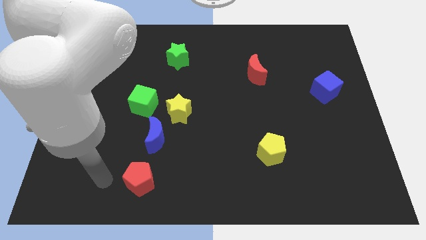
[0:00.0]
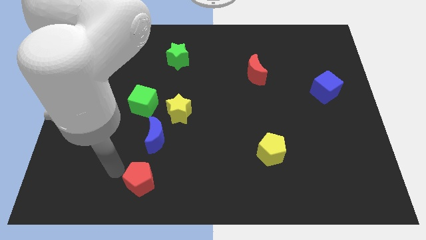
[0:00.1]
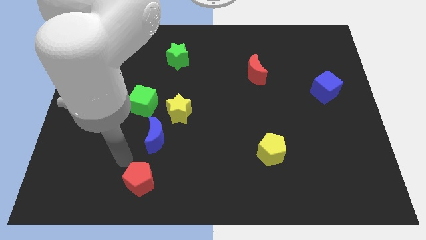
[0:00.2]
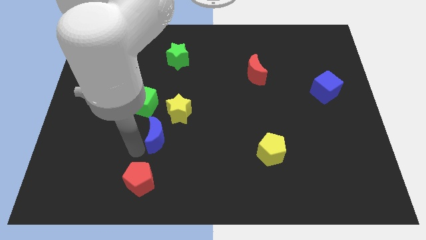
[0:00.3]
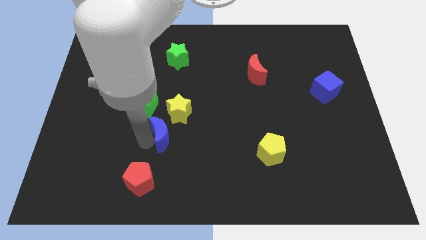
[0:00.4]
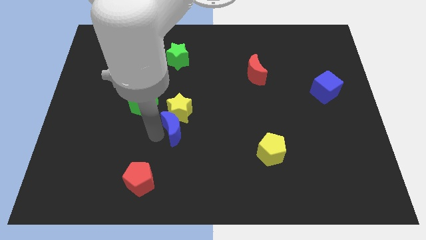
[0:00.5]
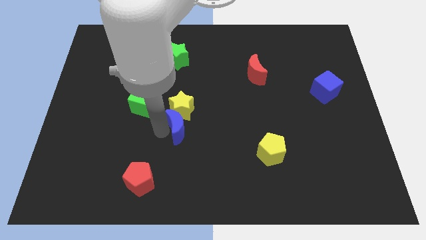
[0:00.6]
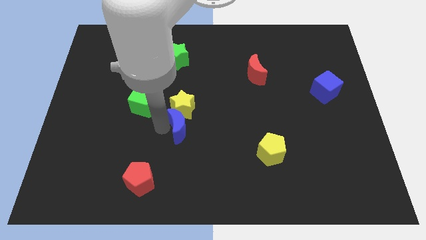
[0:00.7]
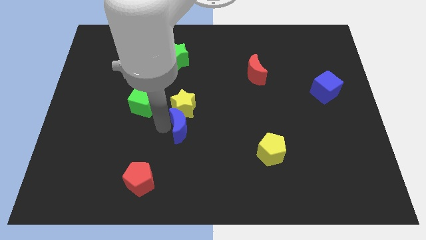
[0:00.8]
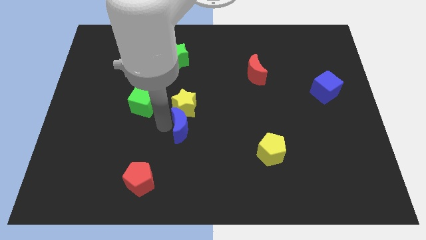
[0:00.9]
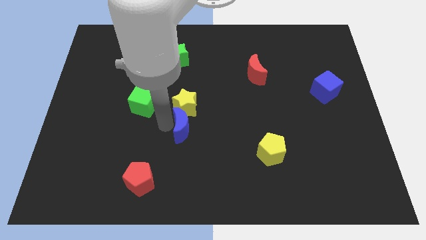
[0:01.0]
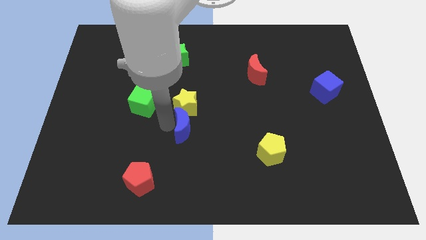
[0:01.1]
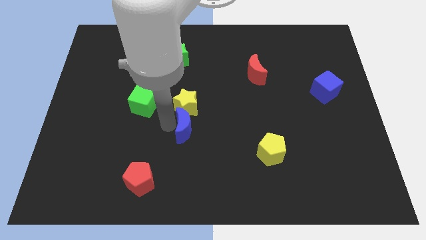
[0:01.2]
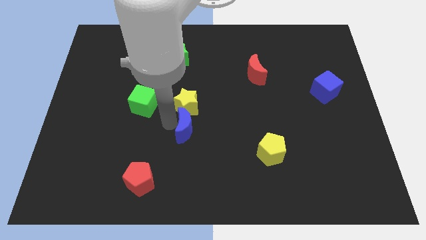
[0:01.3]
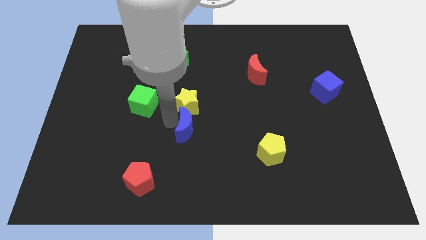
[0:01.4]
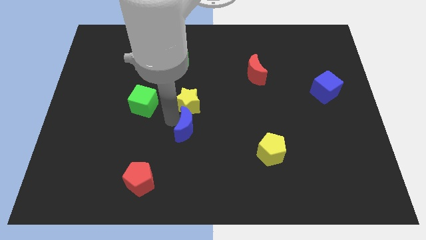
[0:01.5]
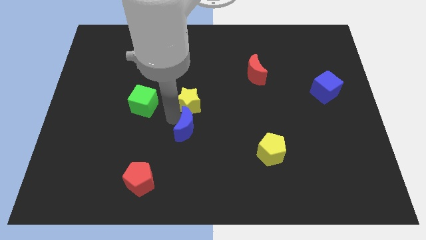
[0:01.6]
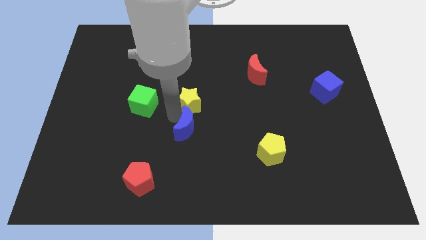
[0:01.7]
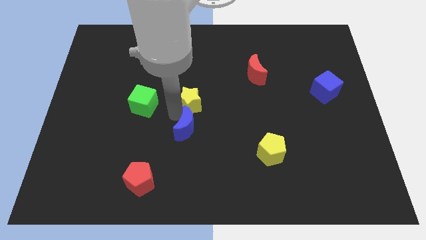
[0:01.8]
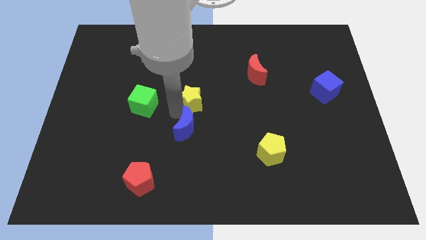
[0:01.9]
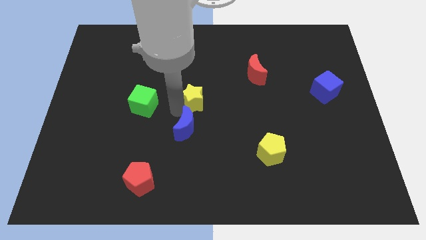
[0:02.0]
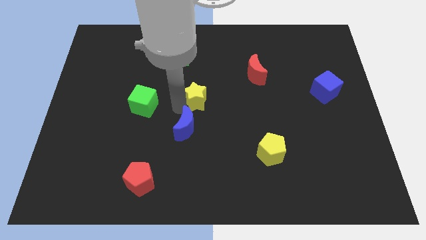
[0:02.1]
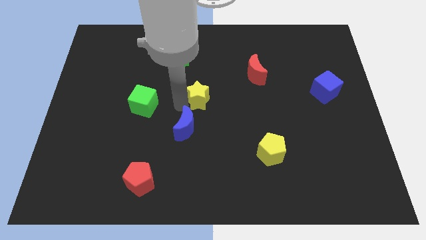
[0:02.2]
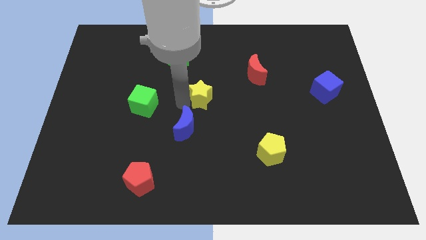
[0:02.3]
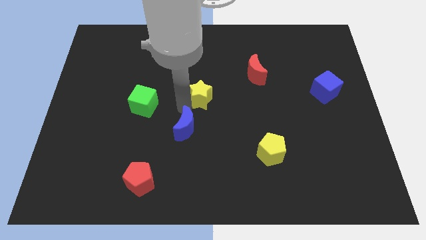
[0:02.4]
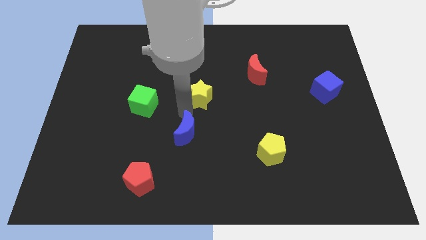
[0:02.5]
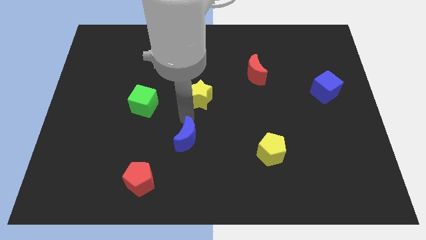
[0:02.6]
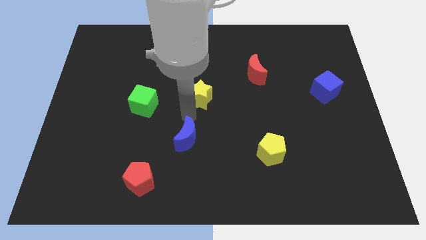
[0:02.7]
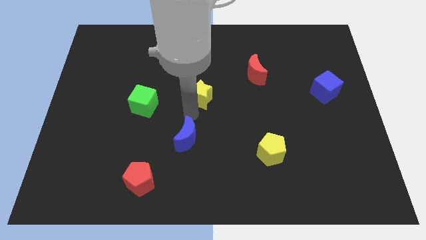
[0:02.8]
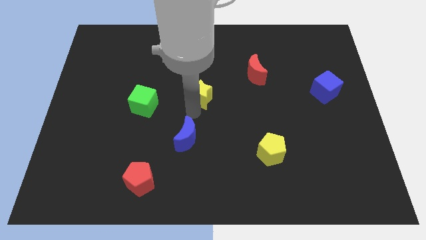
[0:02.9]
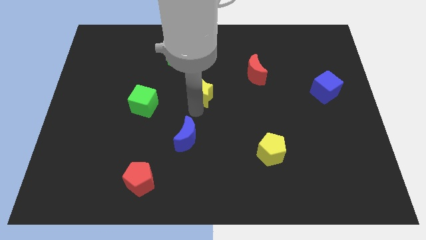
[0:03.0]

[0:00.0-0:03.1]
push the yellow star upwards and then right a little

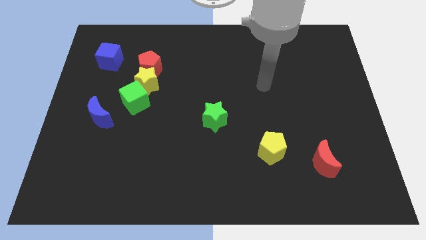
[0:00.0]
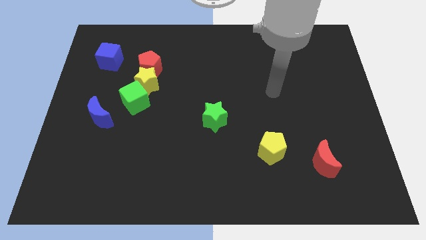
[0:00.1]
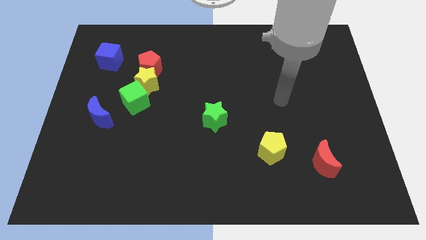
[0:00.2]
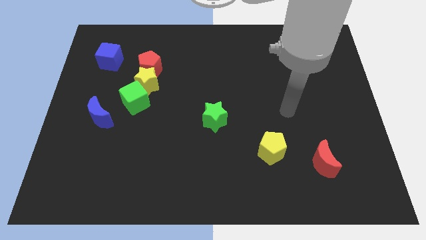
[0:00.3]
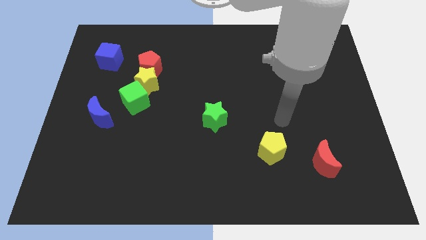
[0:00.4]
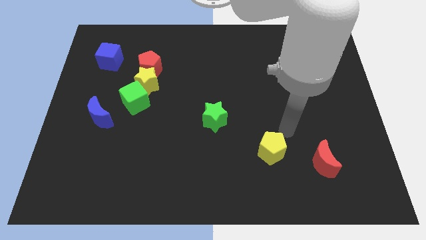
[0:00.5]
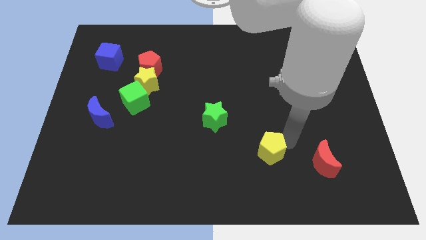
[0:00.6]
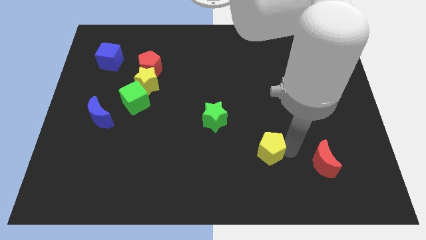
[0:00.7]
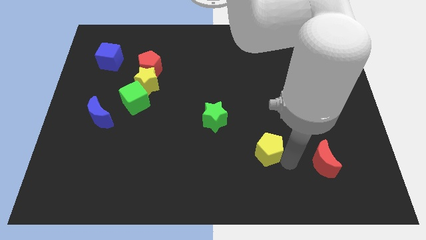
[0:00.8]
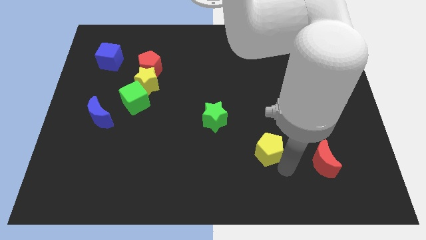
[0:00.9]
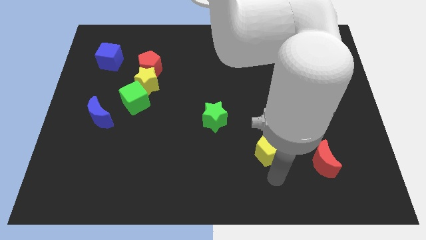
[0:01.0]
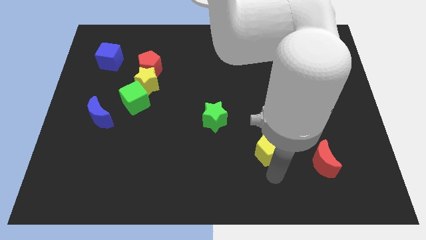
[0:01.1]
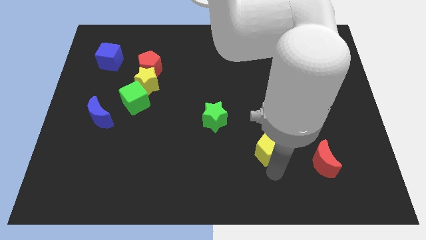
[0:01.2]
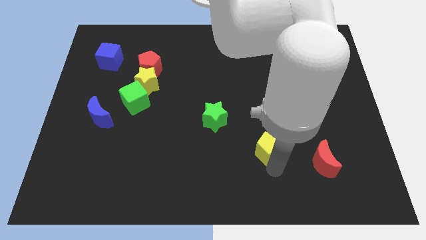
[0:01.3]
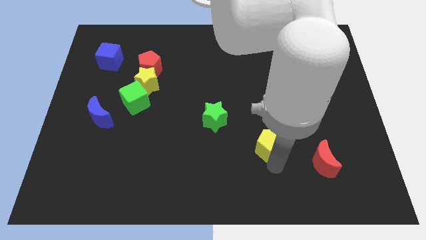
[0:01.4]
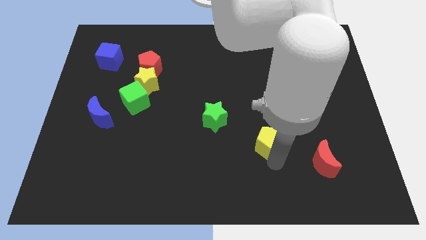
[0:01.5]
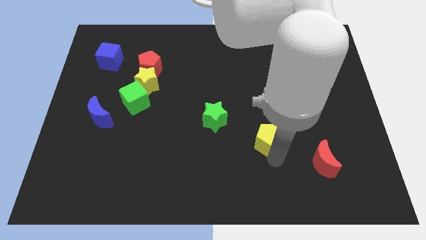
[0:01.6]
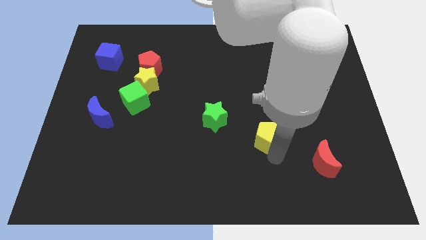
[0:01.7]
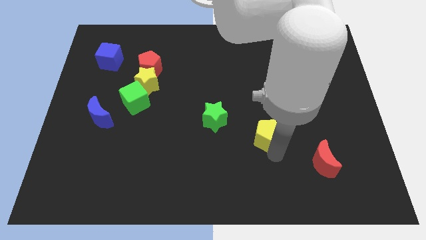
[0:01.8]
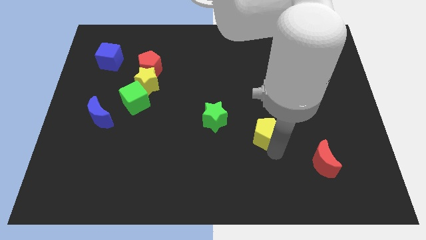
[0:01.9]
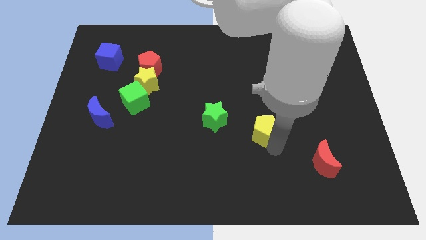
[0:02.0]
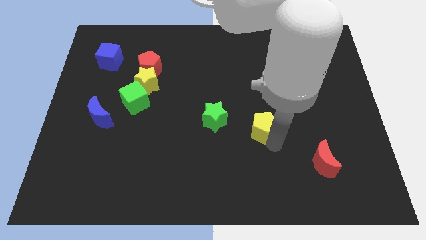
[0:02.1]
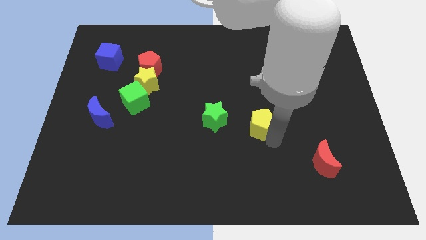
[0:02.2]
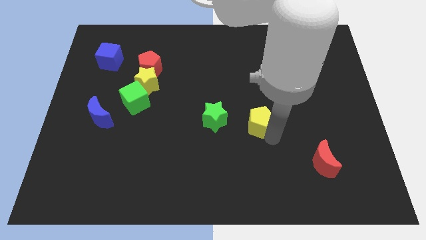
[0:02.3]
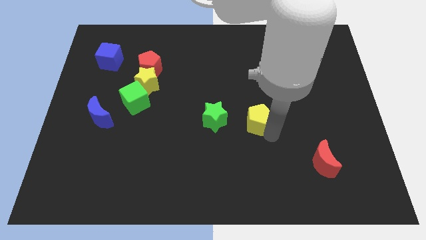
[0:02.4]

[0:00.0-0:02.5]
slide the yellow pentagon up a little

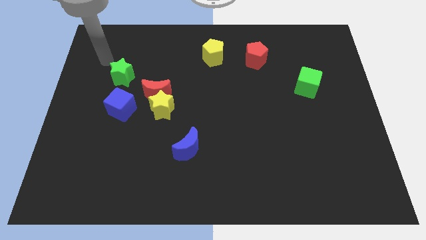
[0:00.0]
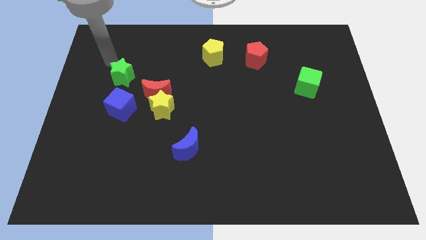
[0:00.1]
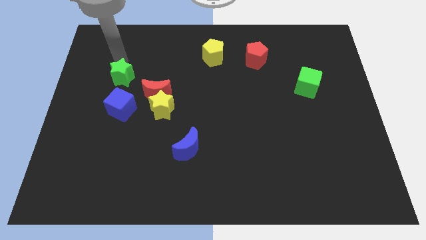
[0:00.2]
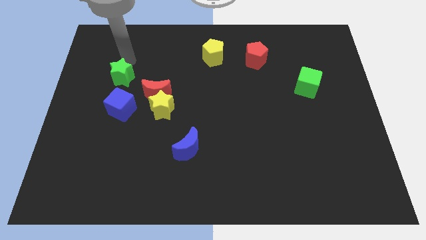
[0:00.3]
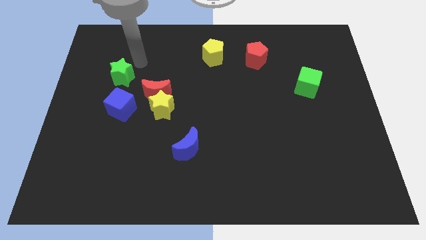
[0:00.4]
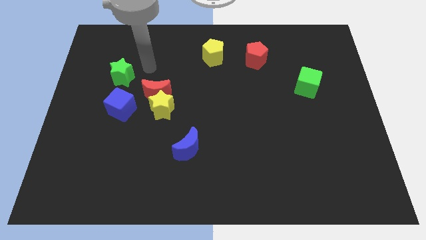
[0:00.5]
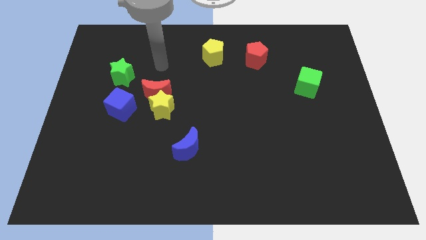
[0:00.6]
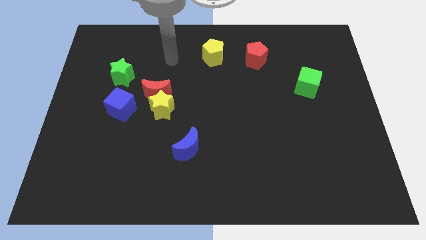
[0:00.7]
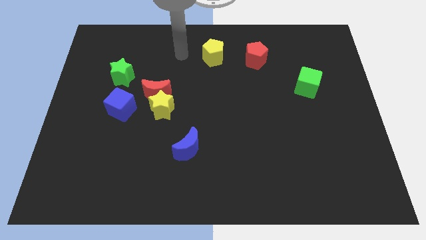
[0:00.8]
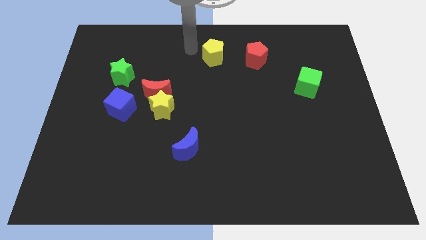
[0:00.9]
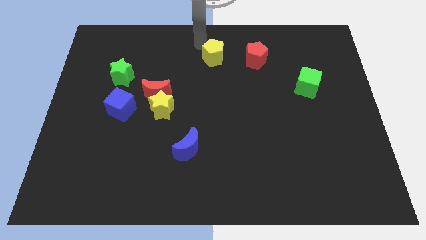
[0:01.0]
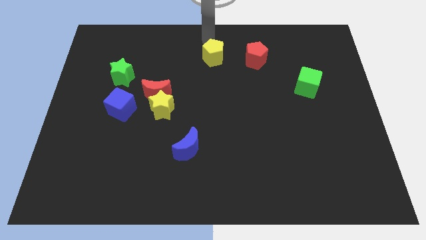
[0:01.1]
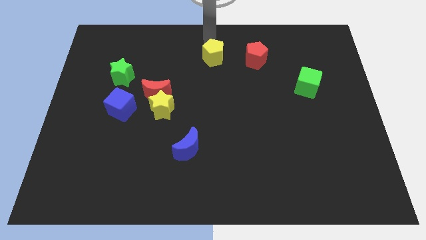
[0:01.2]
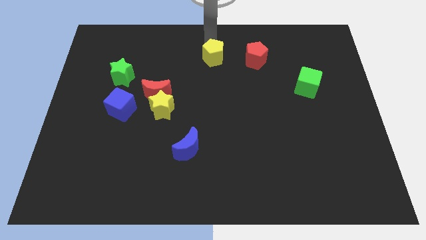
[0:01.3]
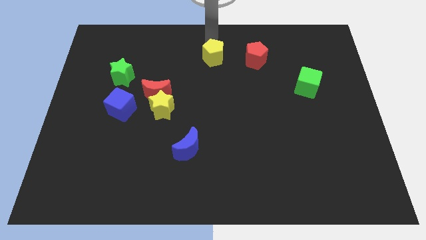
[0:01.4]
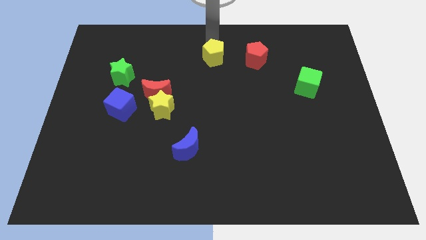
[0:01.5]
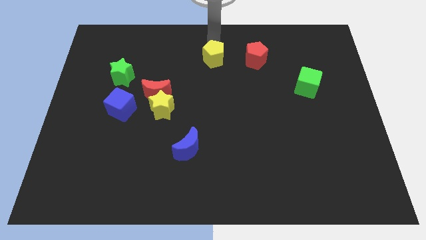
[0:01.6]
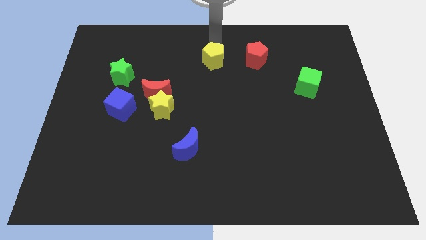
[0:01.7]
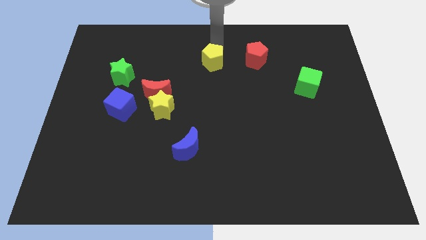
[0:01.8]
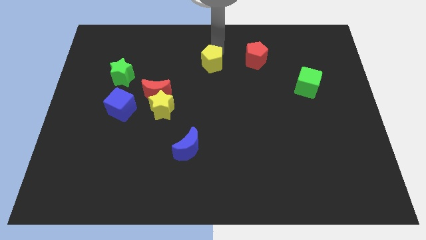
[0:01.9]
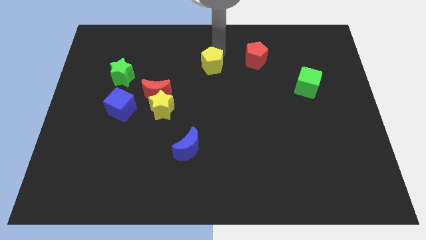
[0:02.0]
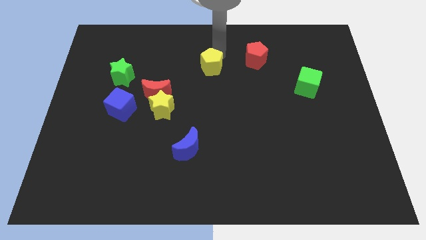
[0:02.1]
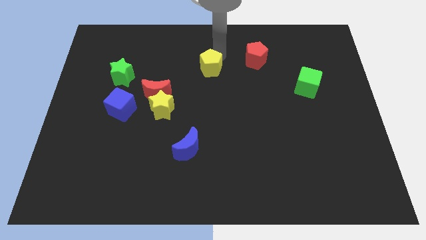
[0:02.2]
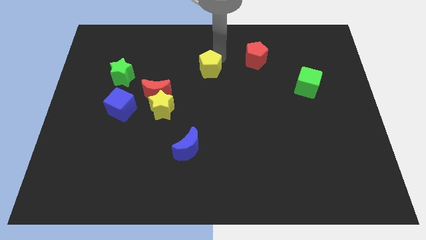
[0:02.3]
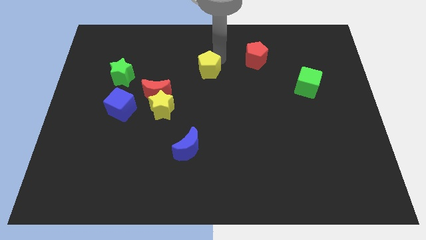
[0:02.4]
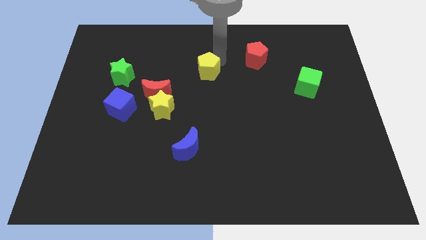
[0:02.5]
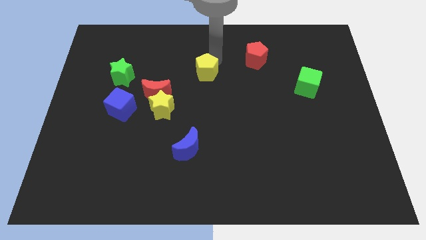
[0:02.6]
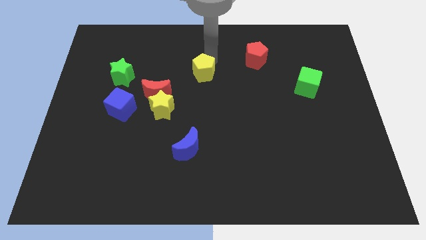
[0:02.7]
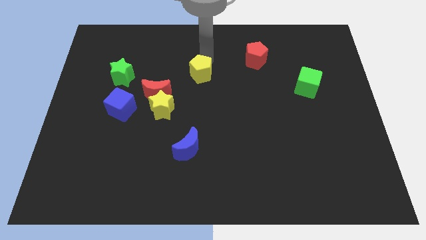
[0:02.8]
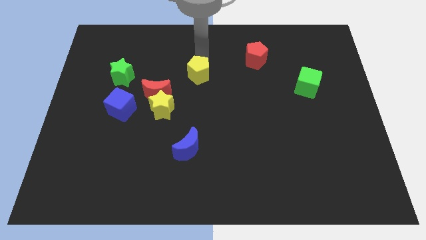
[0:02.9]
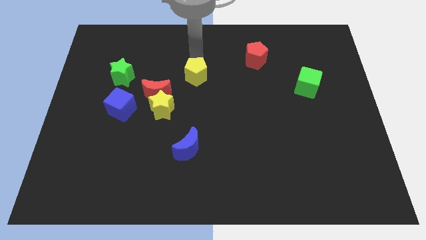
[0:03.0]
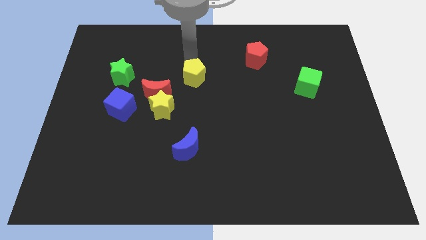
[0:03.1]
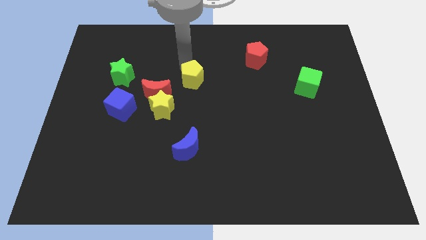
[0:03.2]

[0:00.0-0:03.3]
move the yellow pentagon downwards a bit
